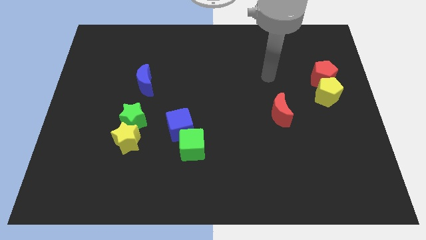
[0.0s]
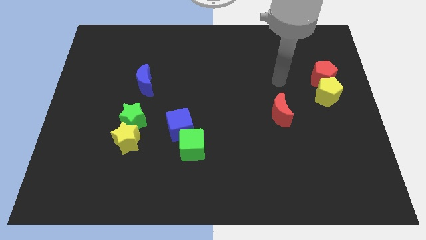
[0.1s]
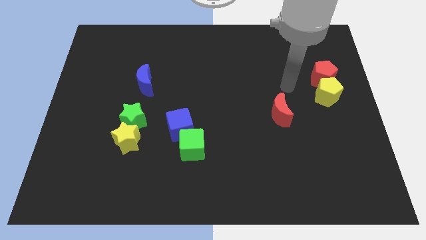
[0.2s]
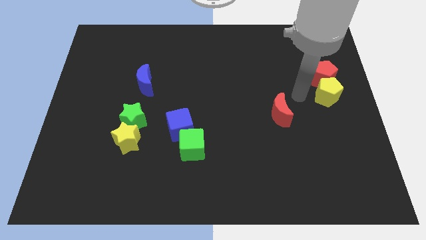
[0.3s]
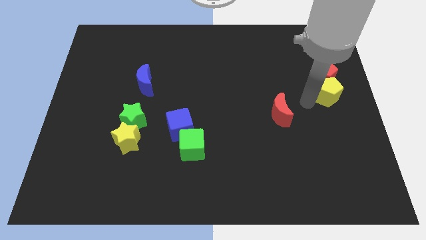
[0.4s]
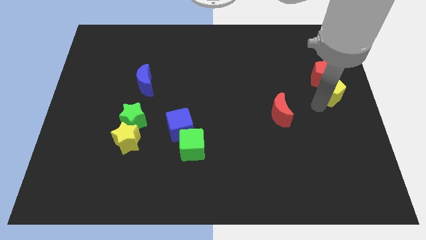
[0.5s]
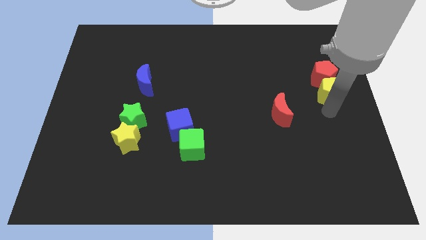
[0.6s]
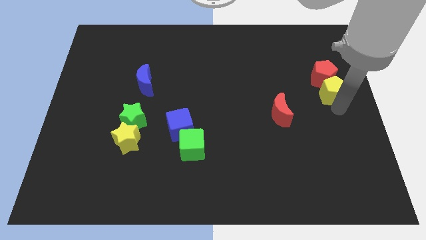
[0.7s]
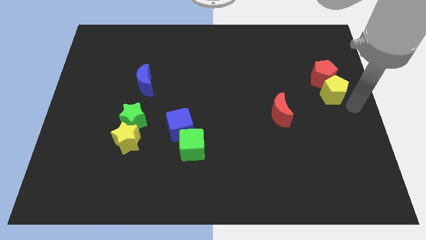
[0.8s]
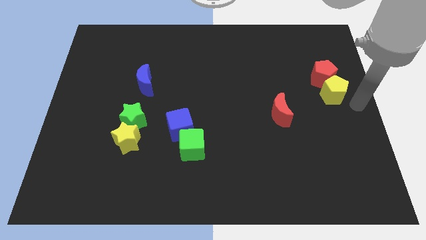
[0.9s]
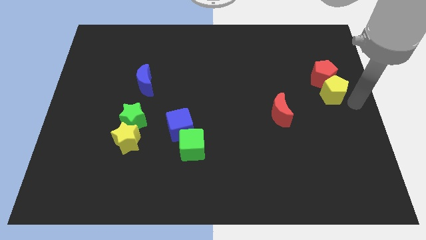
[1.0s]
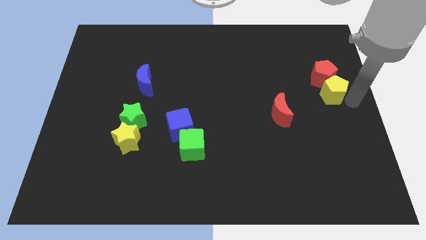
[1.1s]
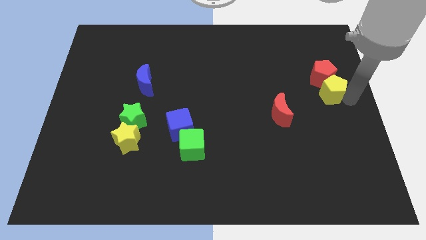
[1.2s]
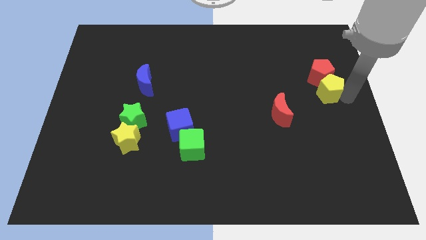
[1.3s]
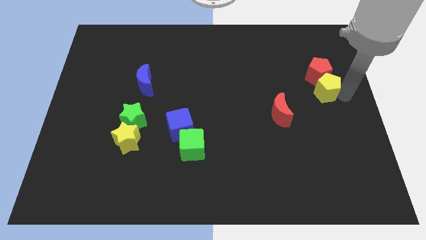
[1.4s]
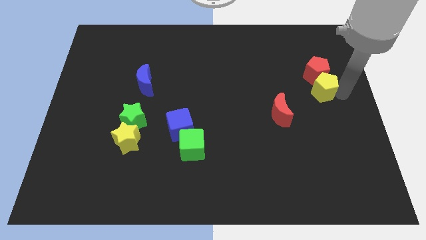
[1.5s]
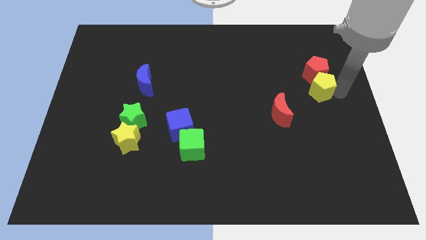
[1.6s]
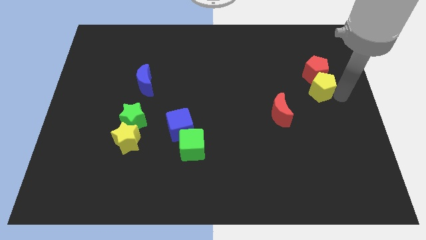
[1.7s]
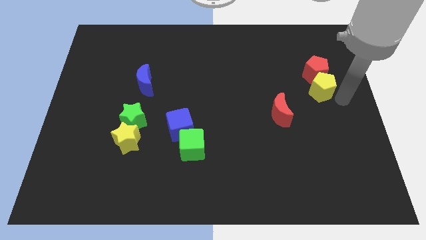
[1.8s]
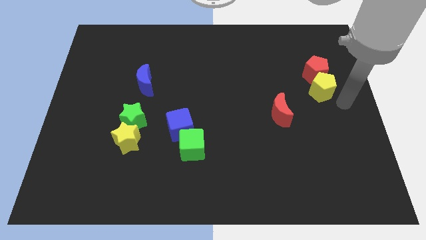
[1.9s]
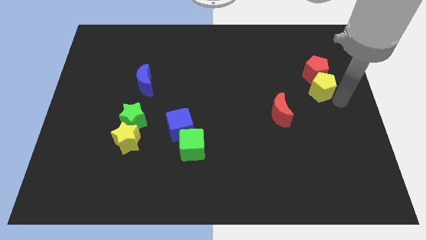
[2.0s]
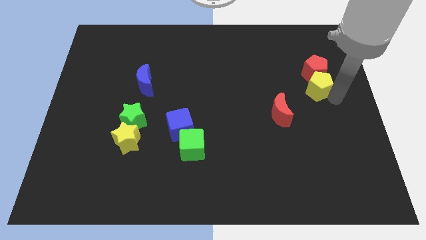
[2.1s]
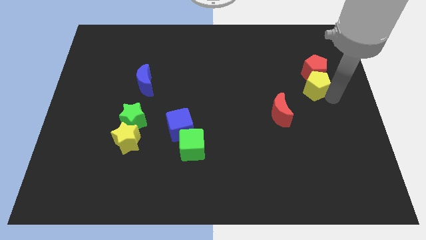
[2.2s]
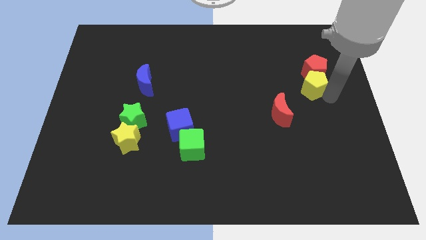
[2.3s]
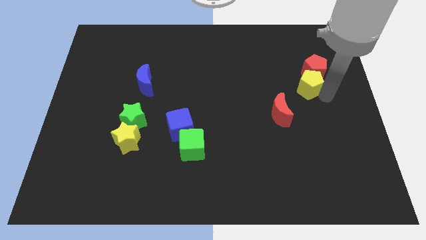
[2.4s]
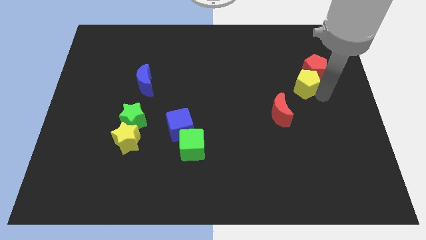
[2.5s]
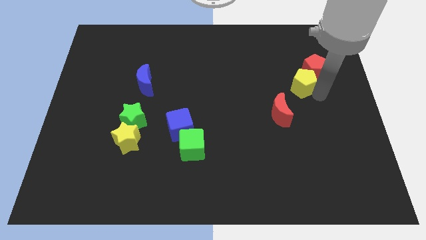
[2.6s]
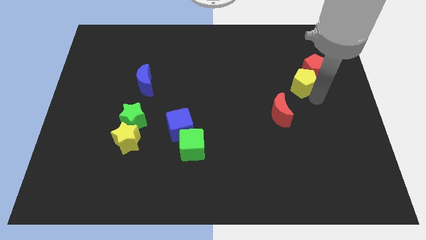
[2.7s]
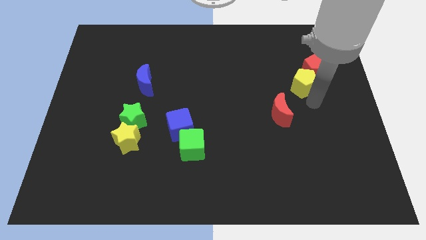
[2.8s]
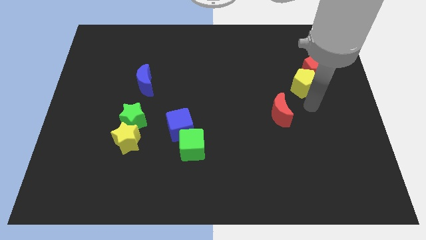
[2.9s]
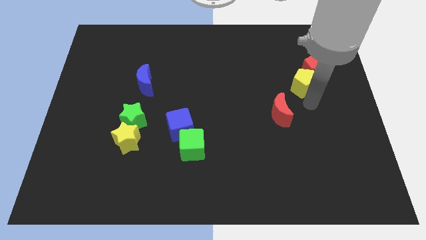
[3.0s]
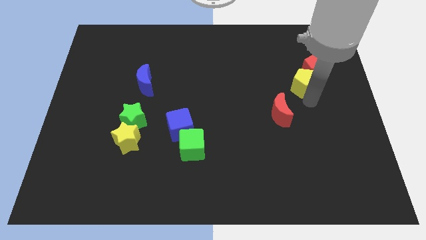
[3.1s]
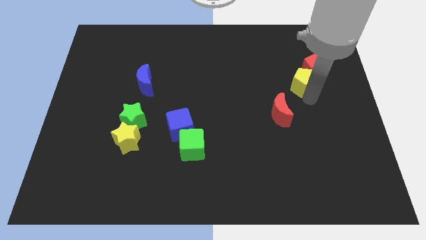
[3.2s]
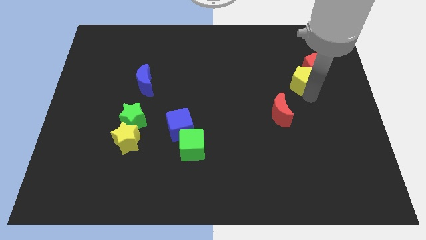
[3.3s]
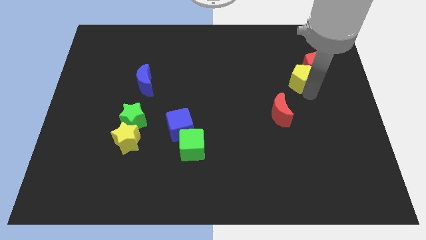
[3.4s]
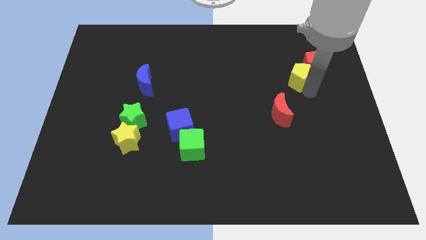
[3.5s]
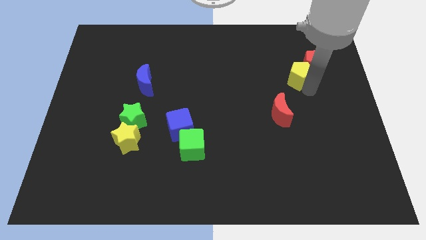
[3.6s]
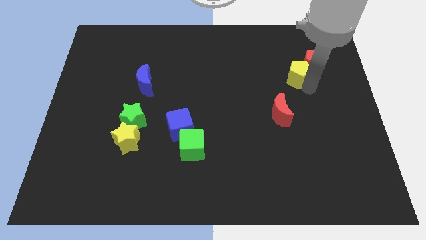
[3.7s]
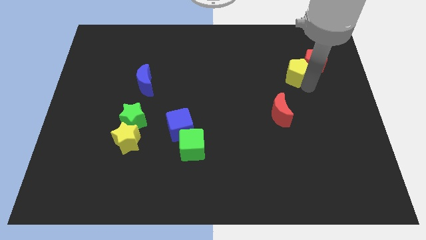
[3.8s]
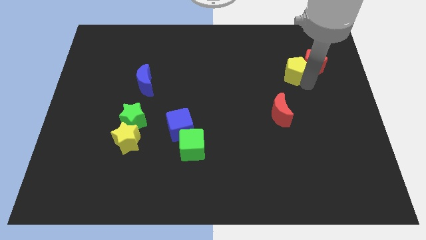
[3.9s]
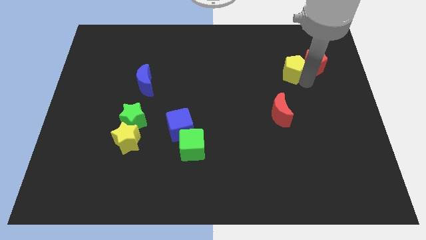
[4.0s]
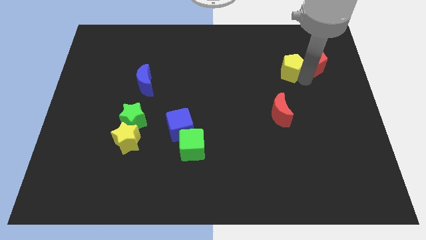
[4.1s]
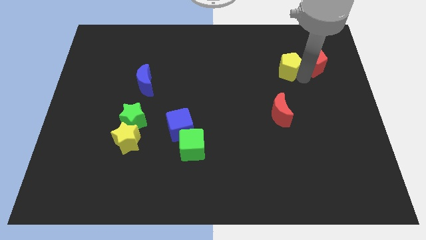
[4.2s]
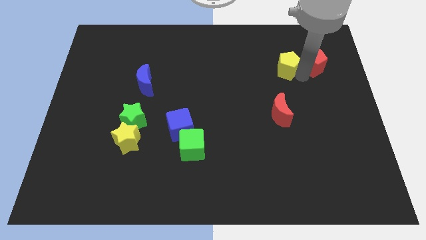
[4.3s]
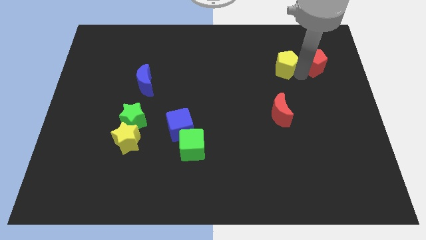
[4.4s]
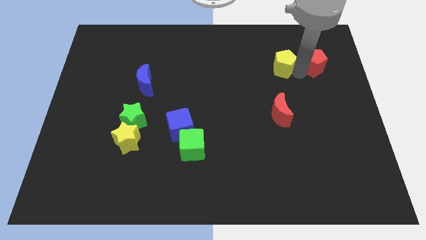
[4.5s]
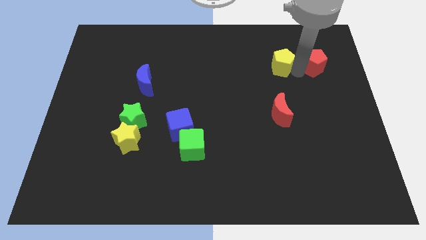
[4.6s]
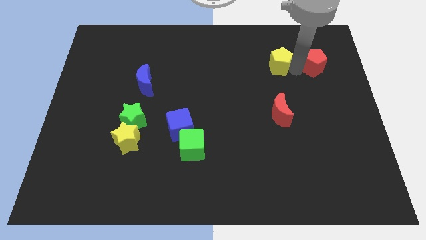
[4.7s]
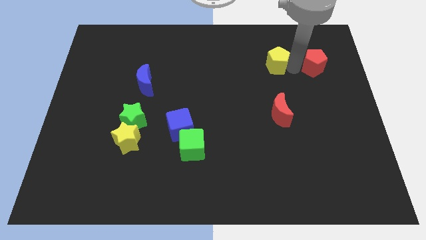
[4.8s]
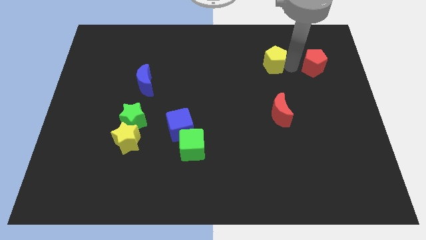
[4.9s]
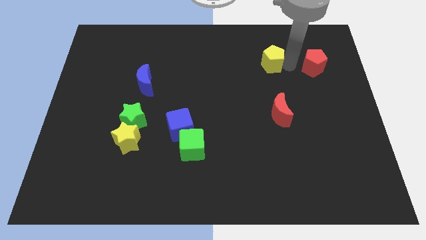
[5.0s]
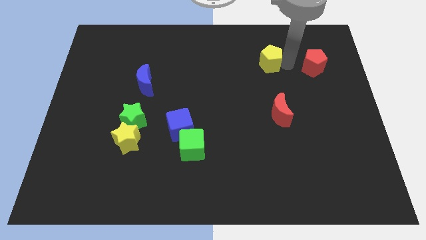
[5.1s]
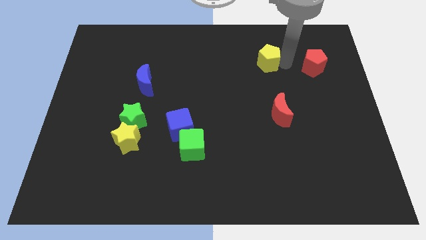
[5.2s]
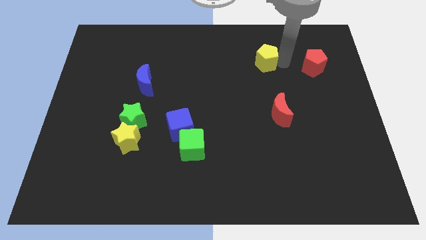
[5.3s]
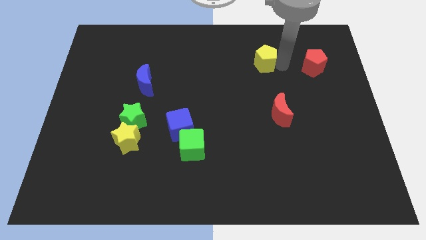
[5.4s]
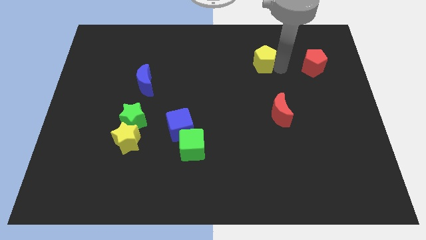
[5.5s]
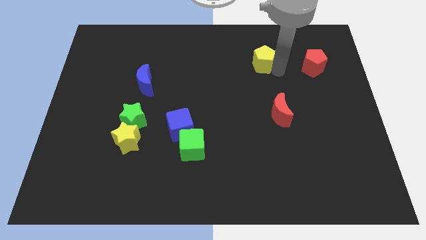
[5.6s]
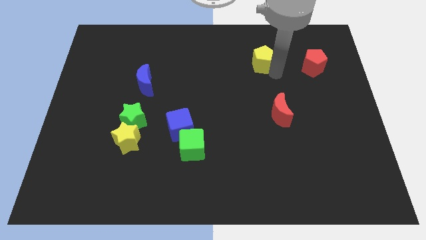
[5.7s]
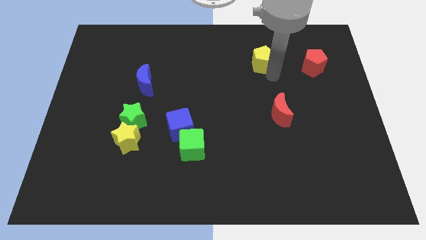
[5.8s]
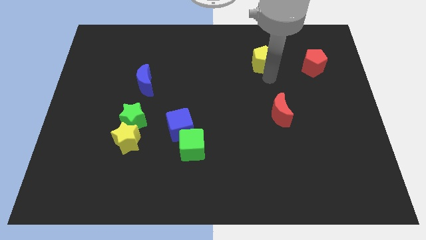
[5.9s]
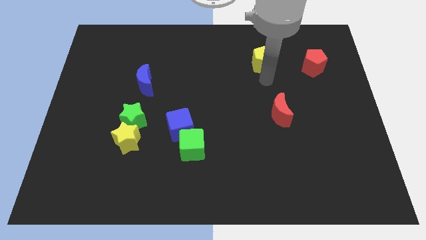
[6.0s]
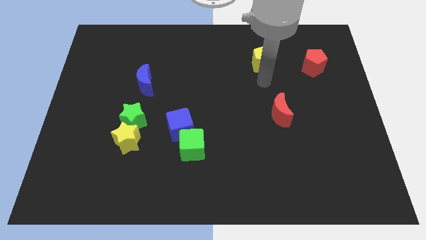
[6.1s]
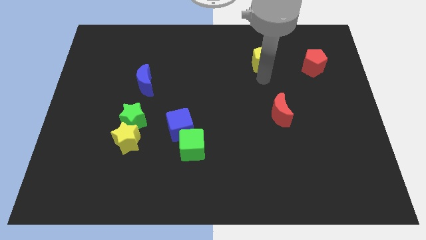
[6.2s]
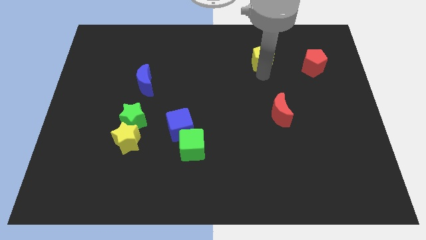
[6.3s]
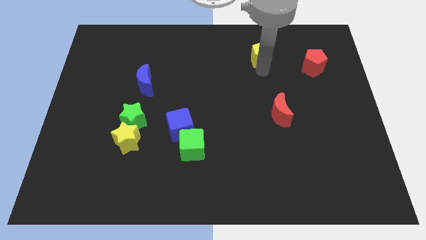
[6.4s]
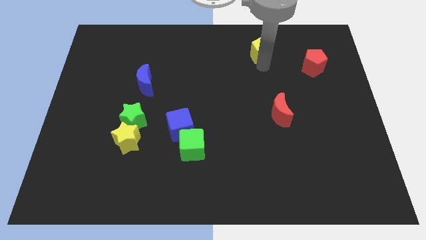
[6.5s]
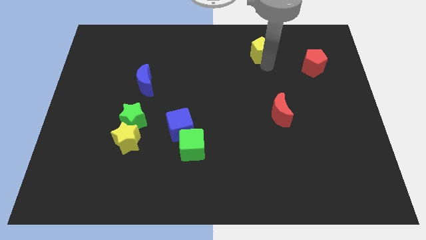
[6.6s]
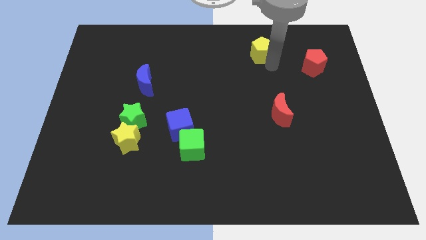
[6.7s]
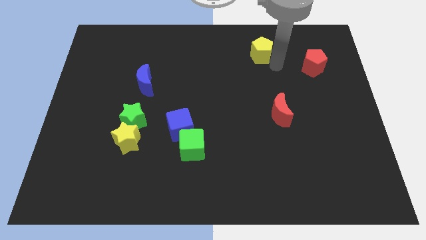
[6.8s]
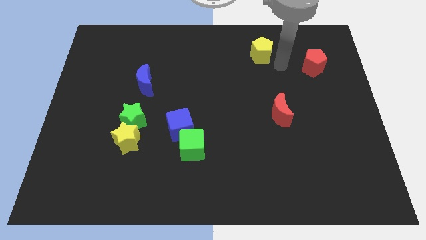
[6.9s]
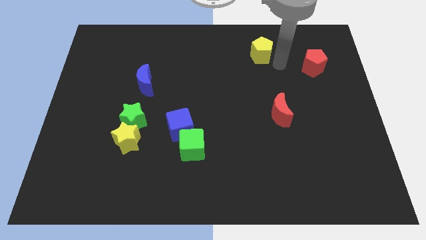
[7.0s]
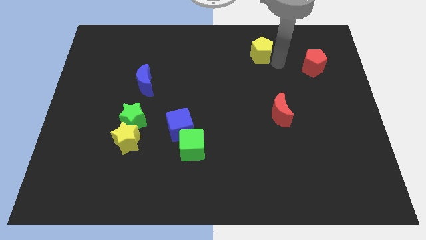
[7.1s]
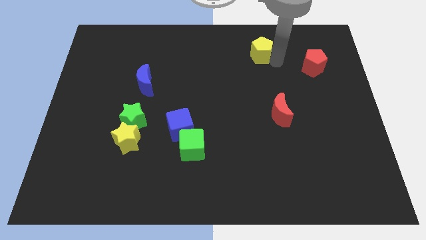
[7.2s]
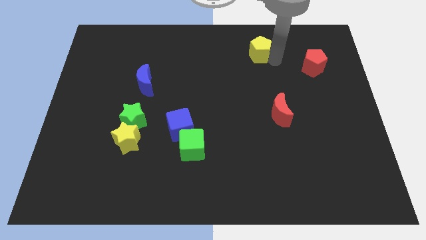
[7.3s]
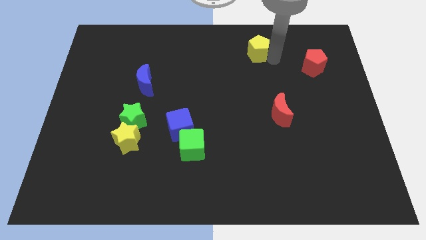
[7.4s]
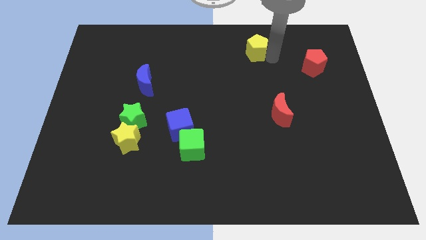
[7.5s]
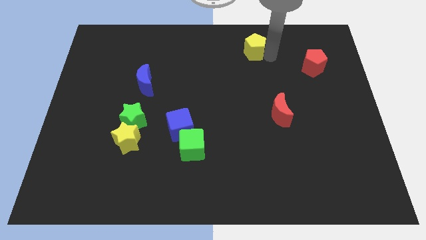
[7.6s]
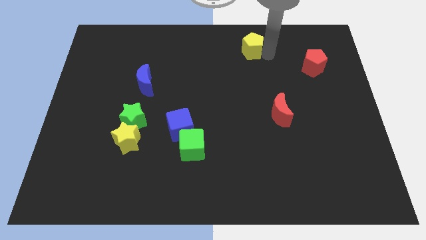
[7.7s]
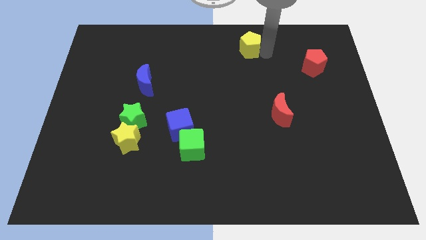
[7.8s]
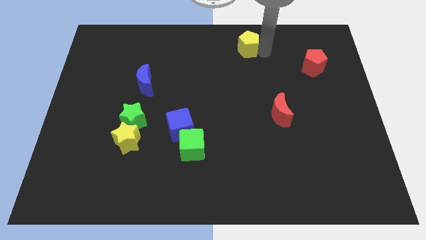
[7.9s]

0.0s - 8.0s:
put the yellow pentagon to the towards your base

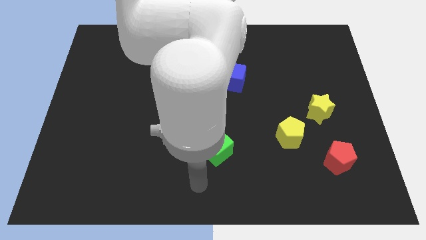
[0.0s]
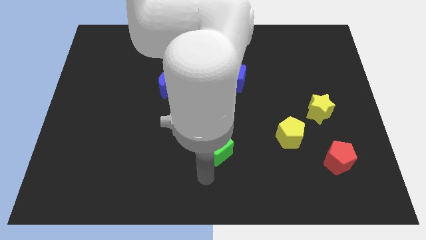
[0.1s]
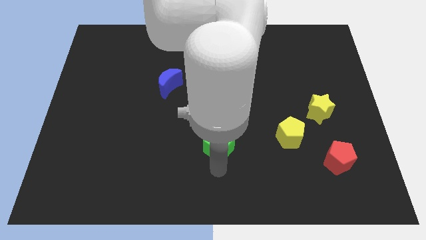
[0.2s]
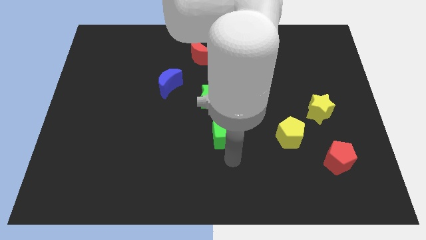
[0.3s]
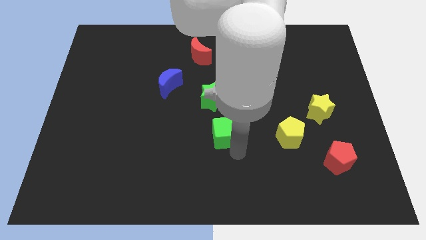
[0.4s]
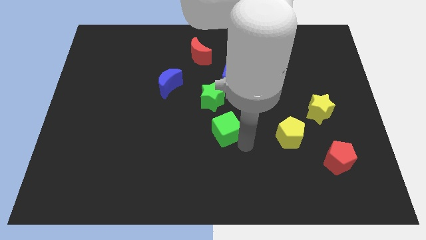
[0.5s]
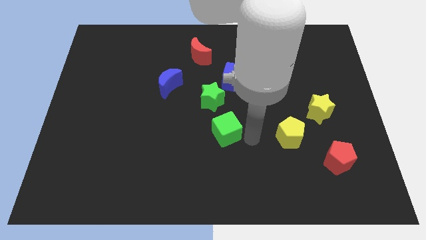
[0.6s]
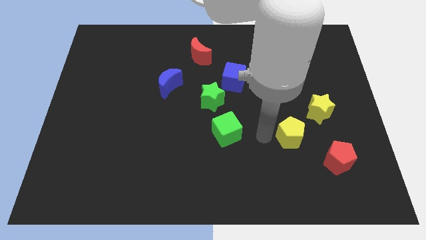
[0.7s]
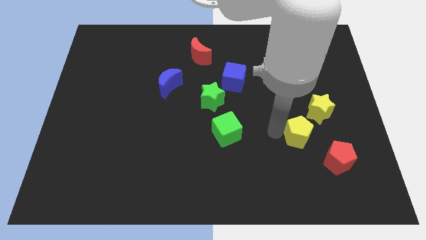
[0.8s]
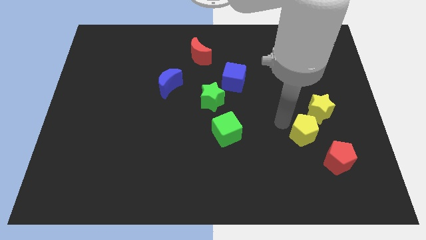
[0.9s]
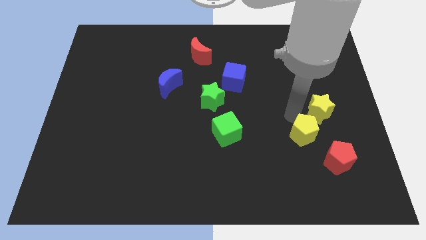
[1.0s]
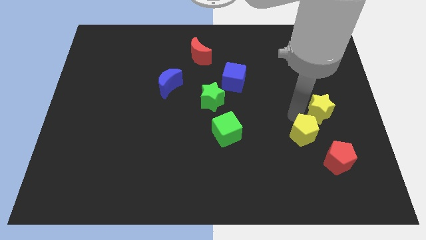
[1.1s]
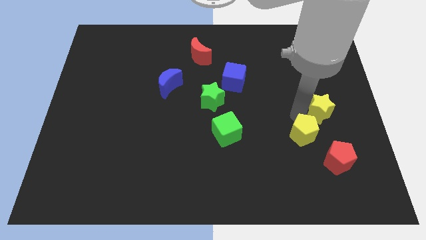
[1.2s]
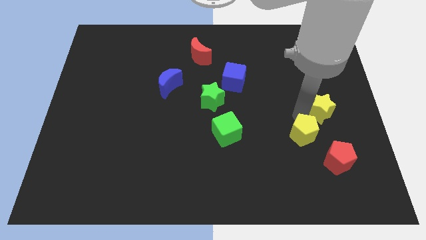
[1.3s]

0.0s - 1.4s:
move the yellow star to the right side
